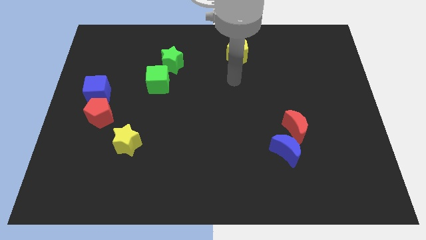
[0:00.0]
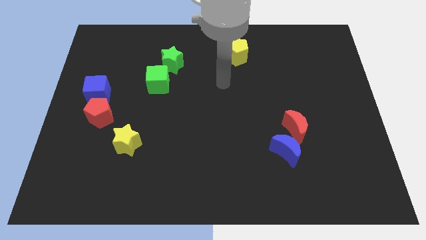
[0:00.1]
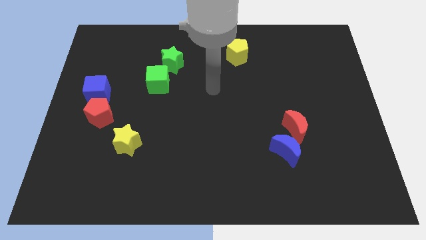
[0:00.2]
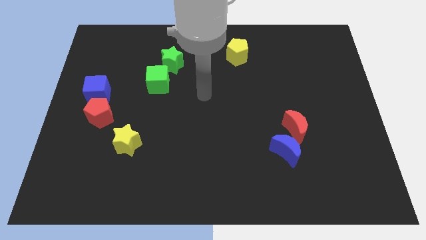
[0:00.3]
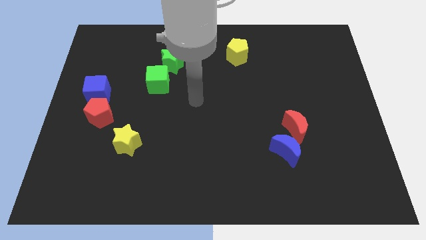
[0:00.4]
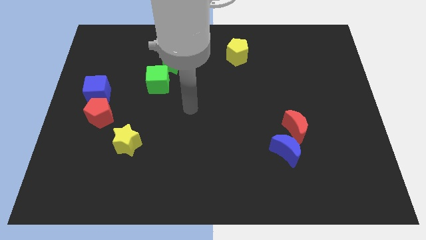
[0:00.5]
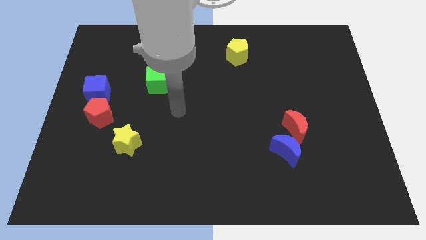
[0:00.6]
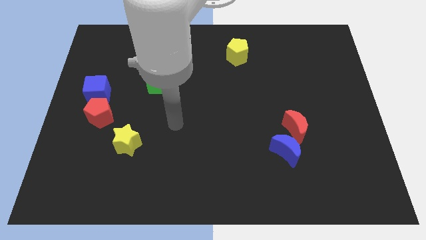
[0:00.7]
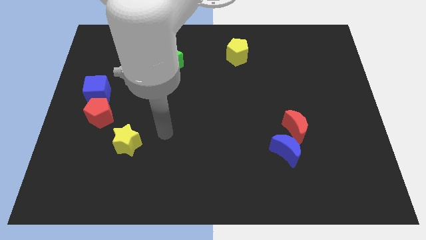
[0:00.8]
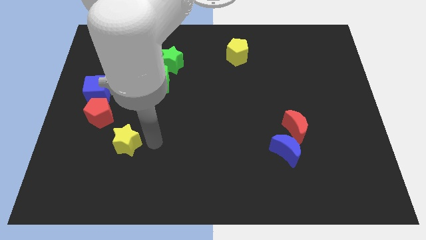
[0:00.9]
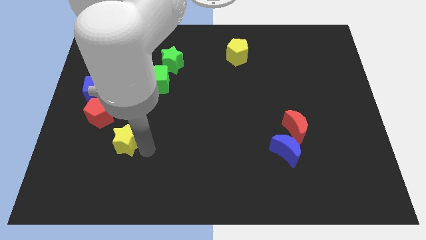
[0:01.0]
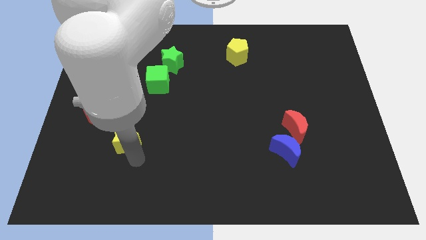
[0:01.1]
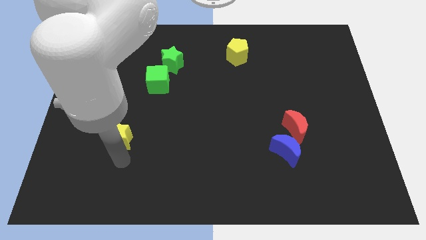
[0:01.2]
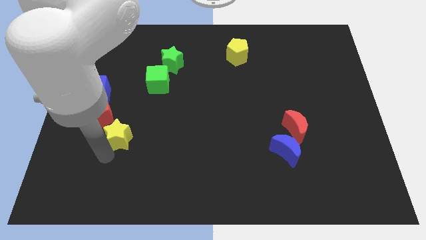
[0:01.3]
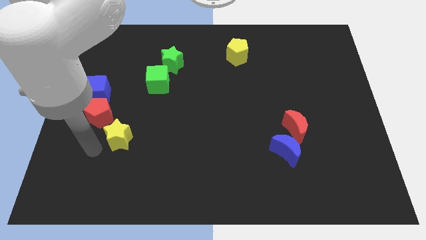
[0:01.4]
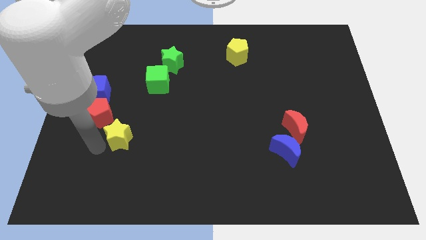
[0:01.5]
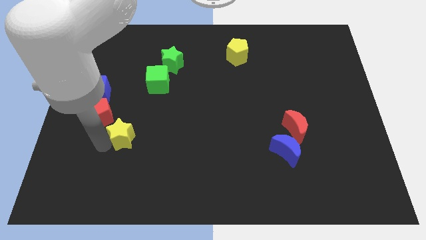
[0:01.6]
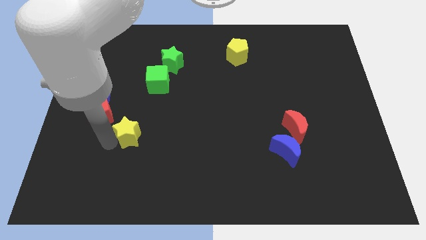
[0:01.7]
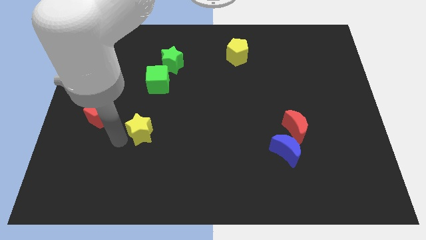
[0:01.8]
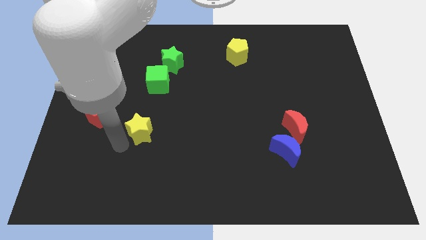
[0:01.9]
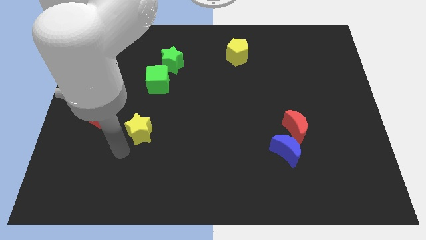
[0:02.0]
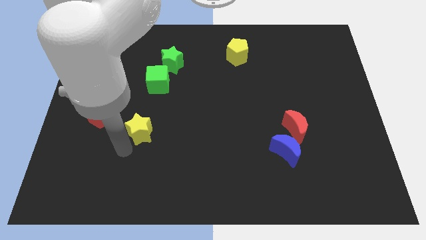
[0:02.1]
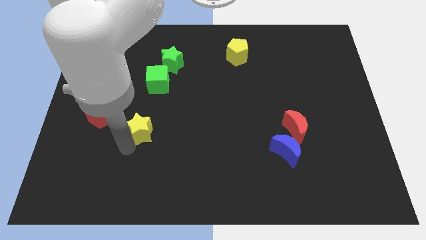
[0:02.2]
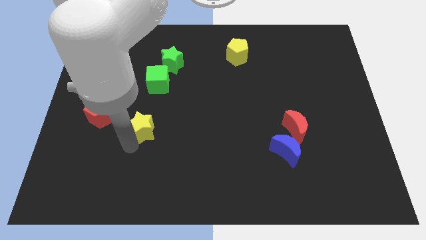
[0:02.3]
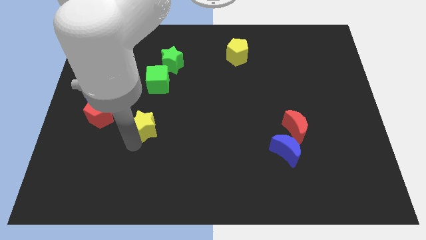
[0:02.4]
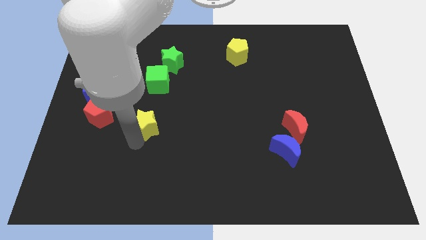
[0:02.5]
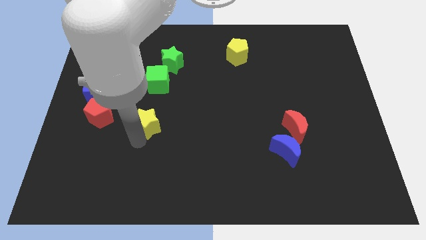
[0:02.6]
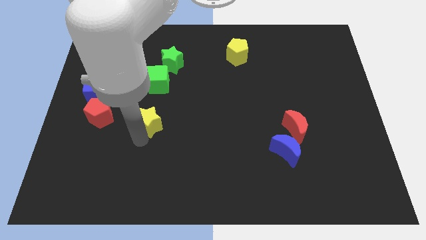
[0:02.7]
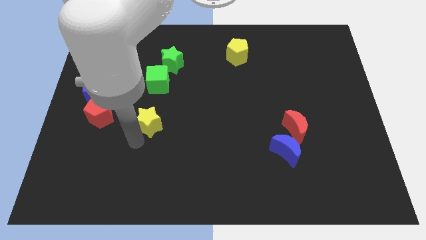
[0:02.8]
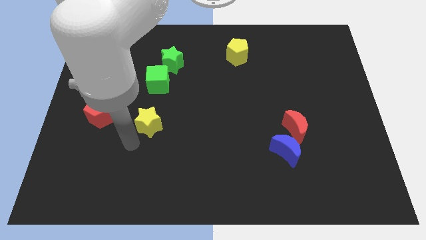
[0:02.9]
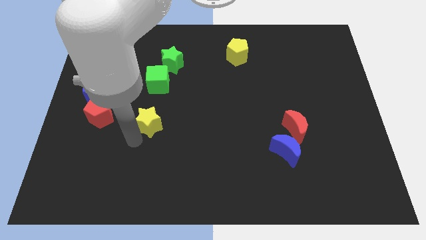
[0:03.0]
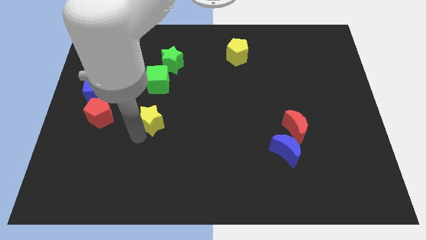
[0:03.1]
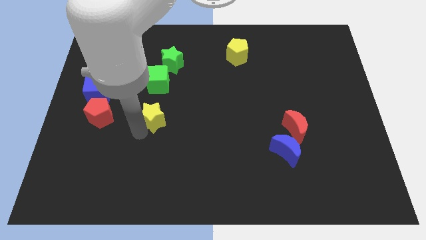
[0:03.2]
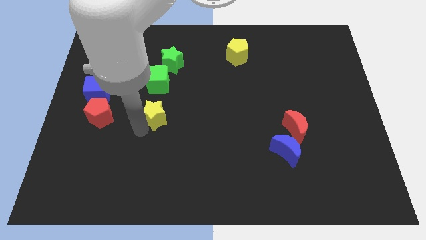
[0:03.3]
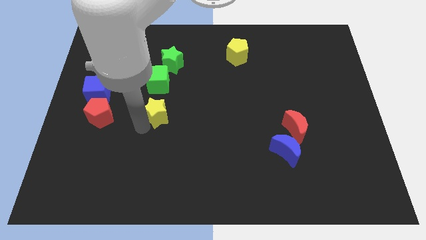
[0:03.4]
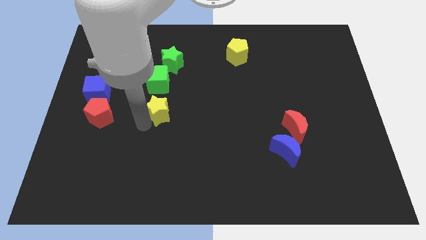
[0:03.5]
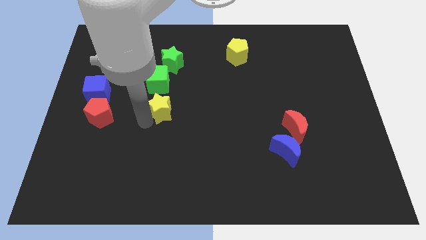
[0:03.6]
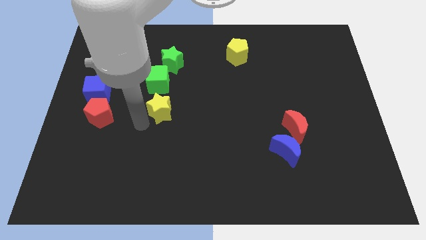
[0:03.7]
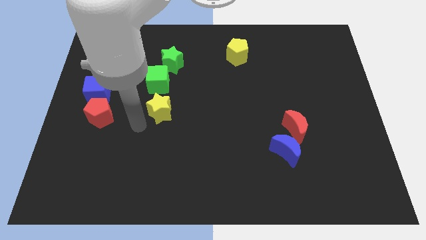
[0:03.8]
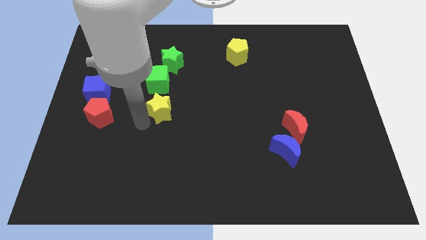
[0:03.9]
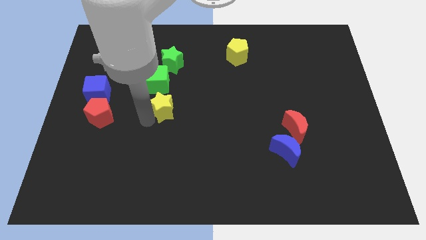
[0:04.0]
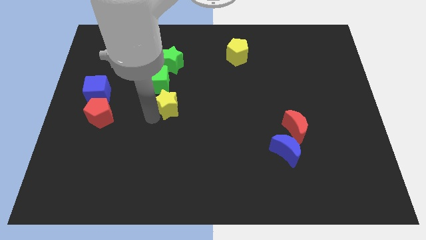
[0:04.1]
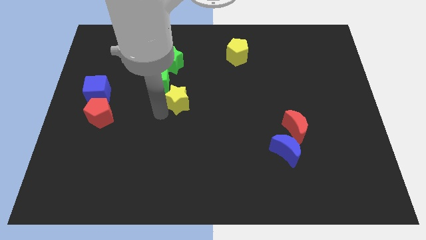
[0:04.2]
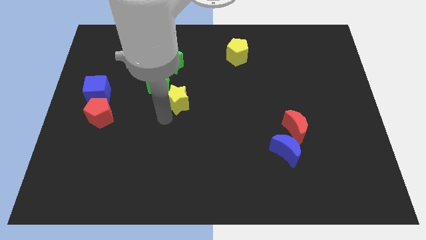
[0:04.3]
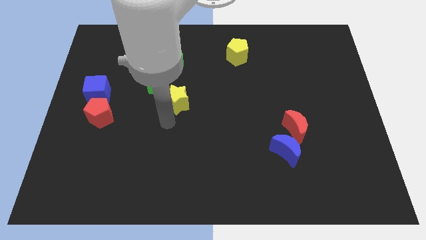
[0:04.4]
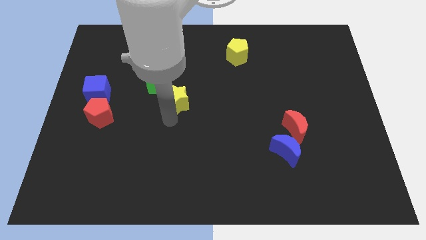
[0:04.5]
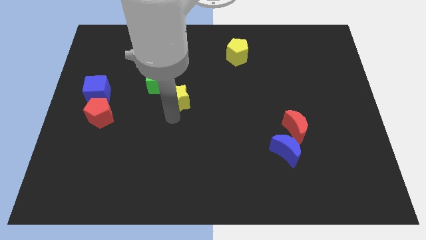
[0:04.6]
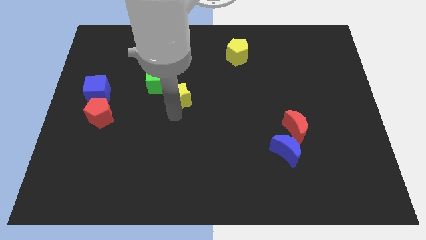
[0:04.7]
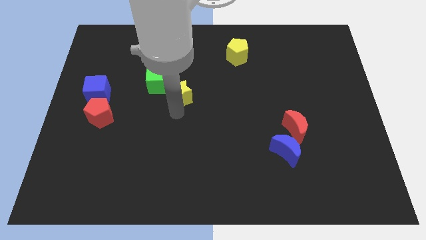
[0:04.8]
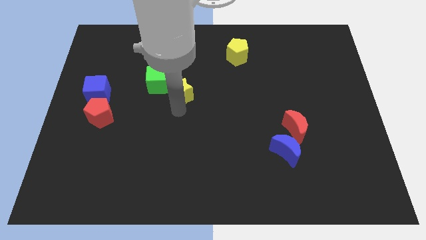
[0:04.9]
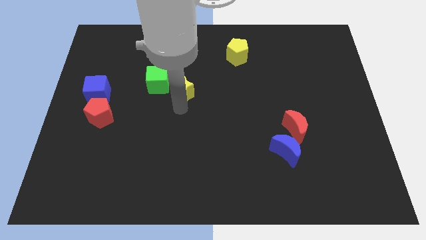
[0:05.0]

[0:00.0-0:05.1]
push the yellow star diagonally down and to the right of the green star

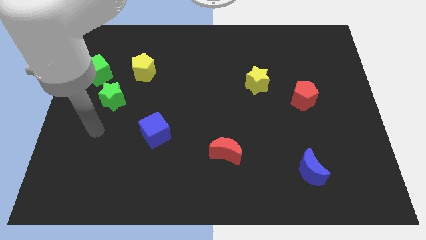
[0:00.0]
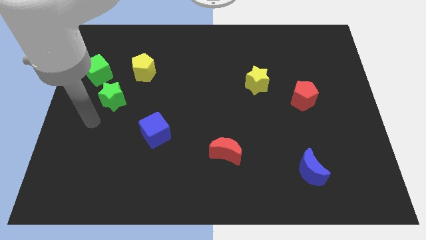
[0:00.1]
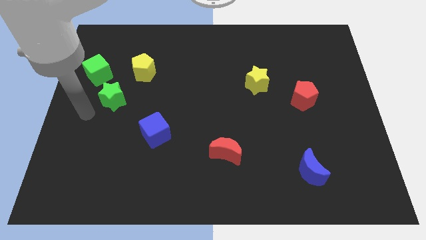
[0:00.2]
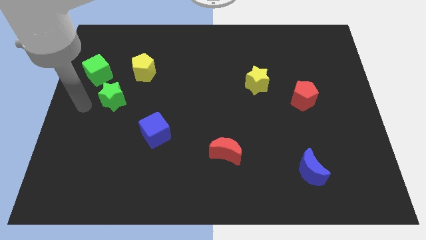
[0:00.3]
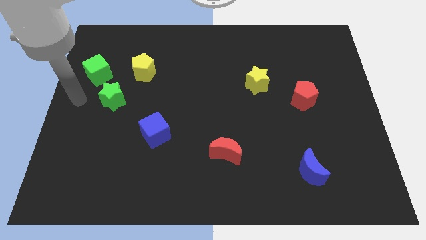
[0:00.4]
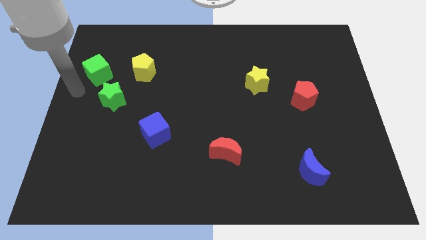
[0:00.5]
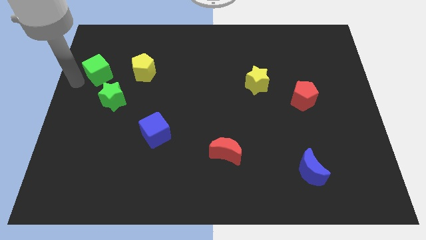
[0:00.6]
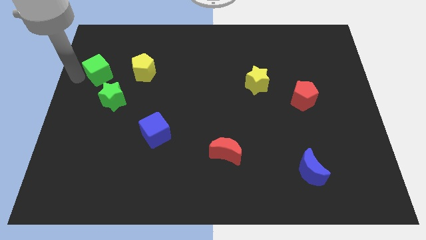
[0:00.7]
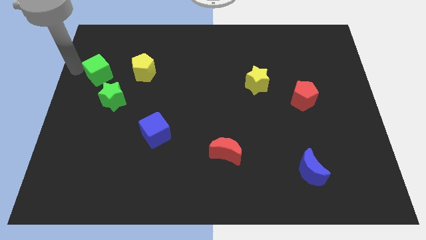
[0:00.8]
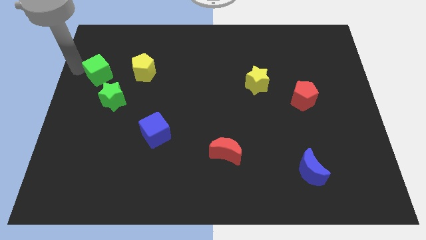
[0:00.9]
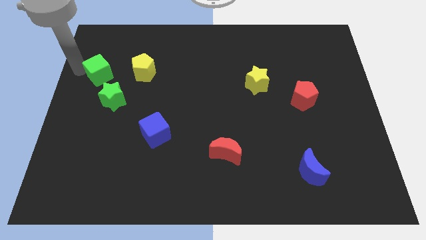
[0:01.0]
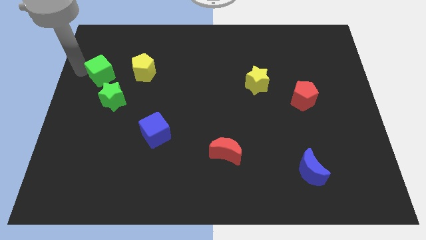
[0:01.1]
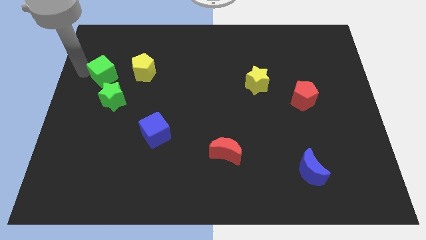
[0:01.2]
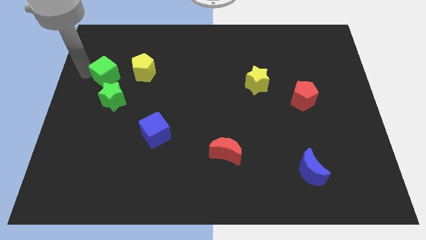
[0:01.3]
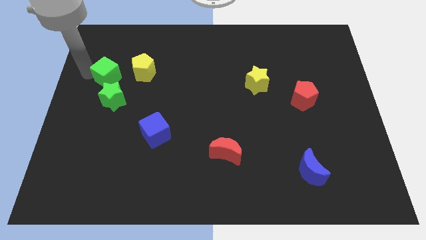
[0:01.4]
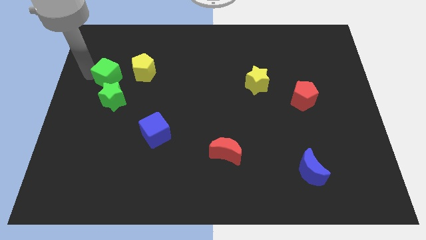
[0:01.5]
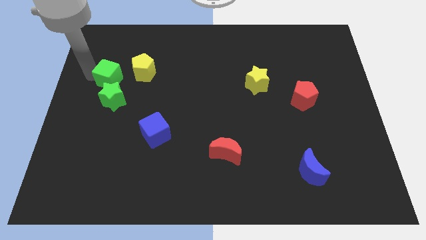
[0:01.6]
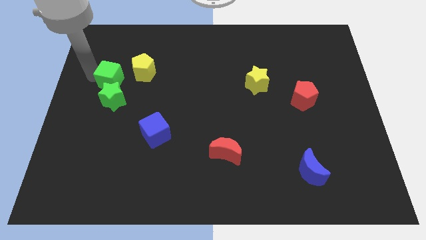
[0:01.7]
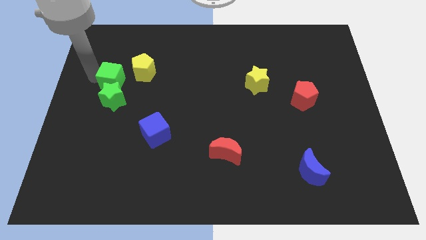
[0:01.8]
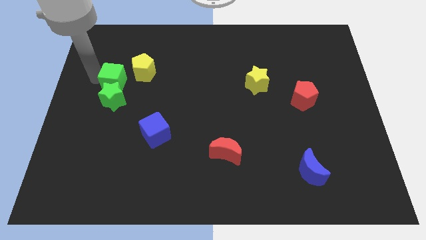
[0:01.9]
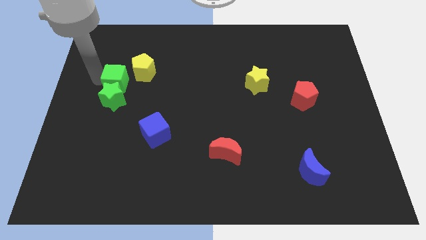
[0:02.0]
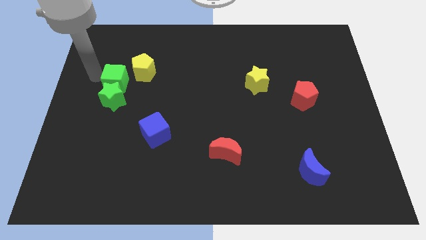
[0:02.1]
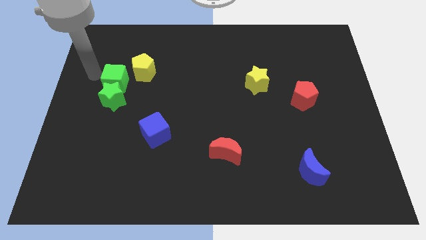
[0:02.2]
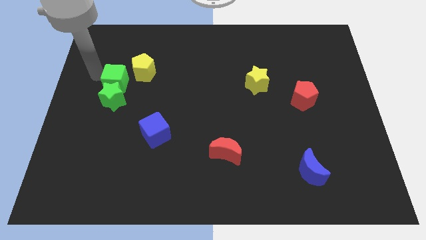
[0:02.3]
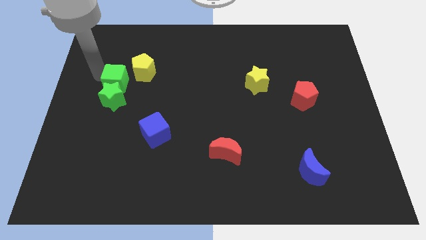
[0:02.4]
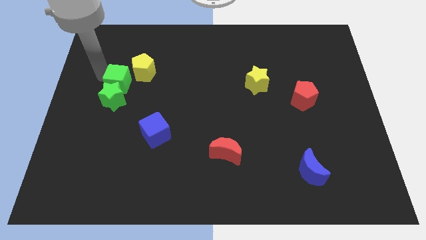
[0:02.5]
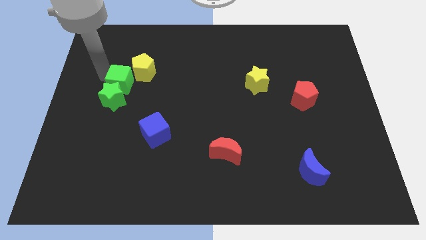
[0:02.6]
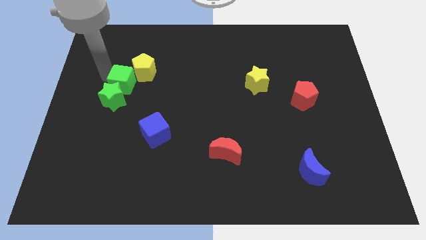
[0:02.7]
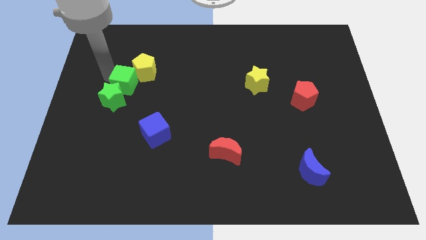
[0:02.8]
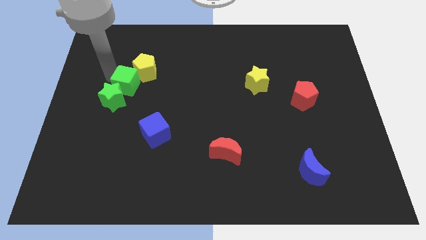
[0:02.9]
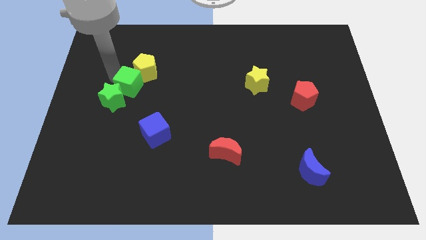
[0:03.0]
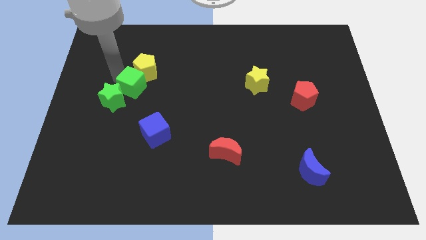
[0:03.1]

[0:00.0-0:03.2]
slide the green cube to the right of the green star

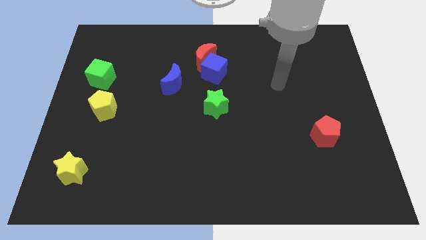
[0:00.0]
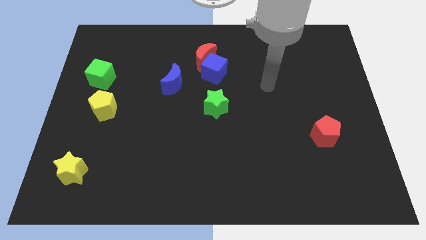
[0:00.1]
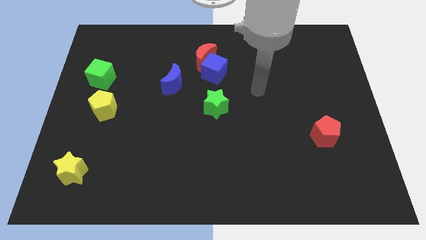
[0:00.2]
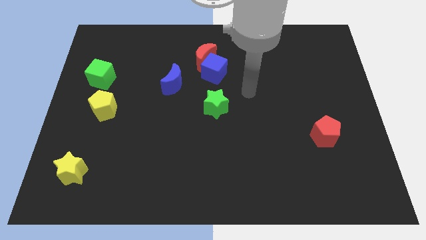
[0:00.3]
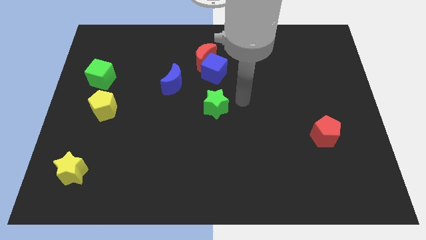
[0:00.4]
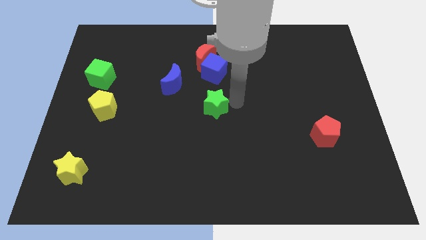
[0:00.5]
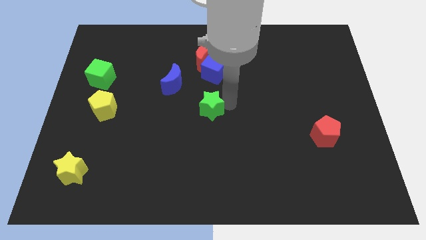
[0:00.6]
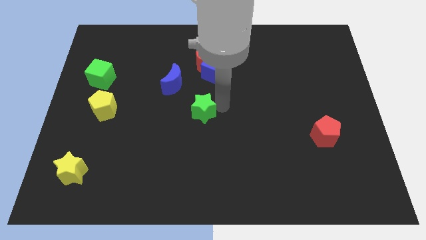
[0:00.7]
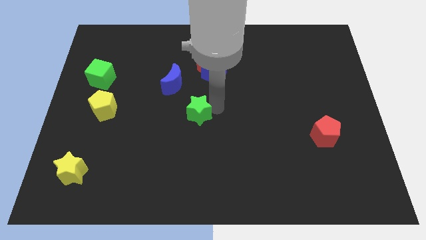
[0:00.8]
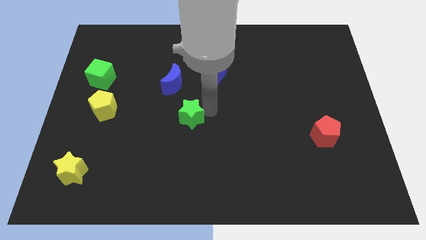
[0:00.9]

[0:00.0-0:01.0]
put the green star to the bottom side of the blue moon
